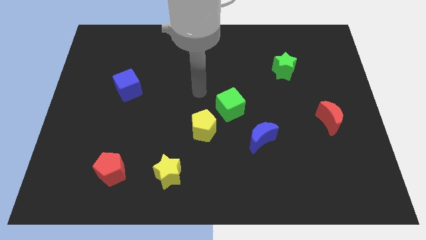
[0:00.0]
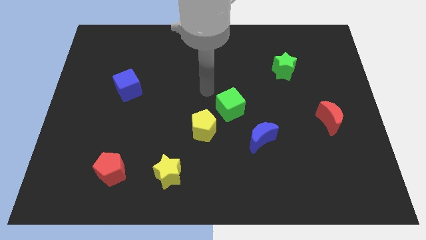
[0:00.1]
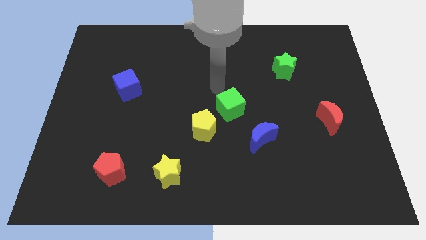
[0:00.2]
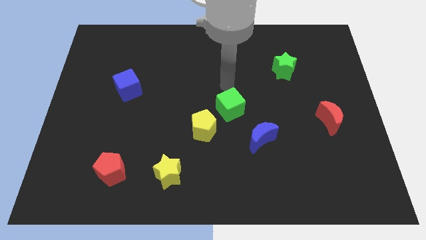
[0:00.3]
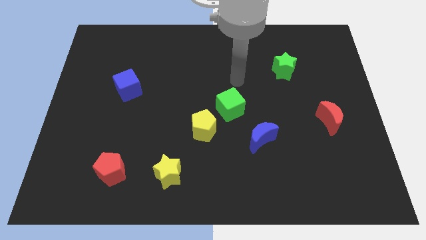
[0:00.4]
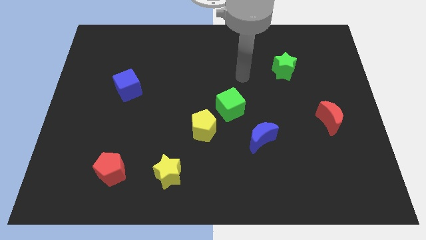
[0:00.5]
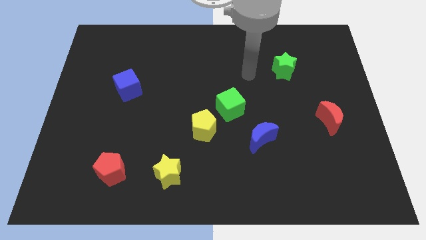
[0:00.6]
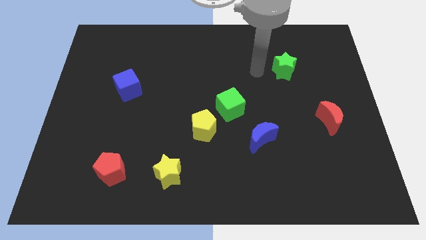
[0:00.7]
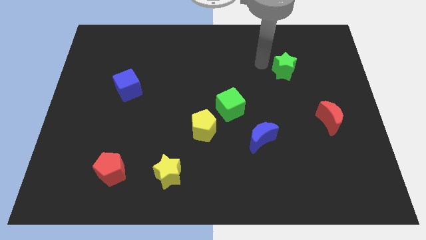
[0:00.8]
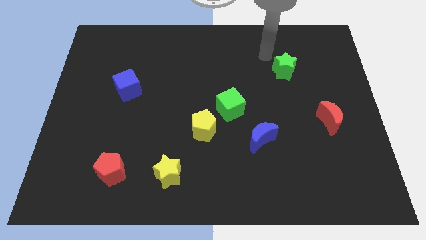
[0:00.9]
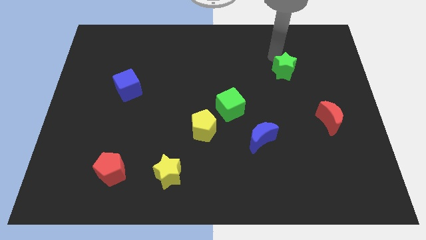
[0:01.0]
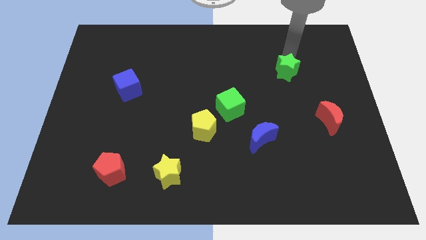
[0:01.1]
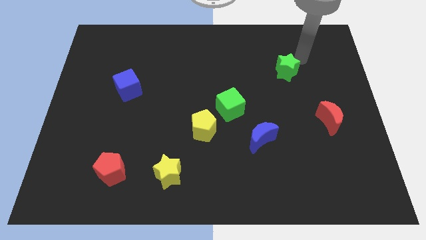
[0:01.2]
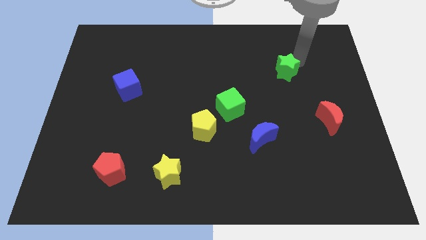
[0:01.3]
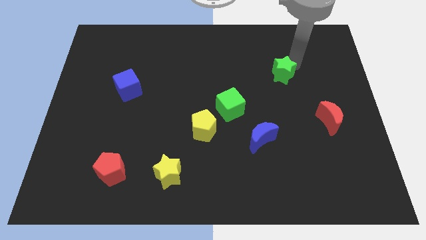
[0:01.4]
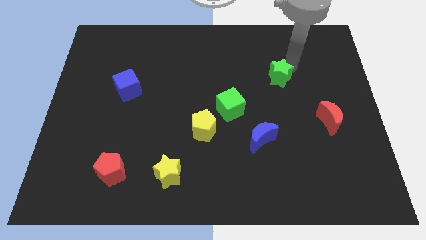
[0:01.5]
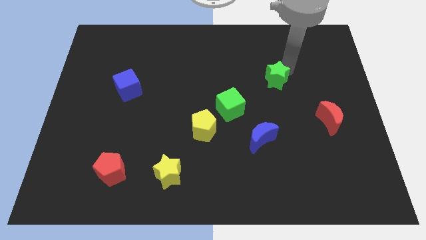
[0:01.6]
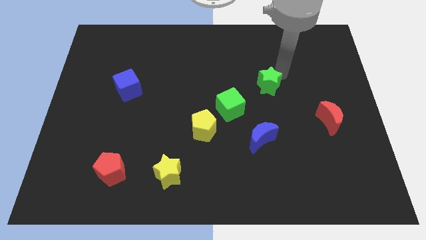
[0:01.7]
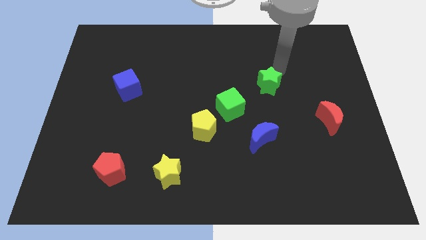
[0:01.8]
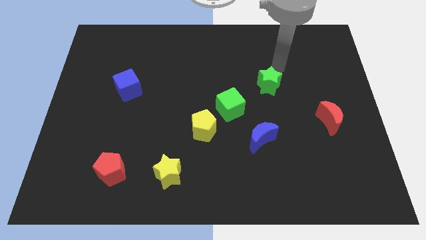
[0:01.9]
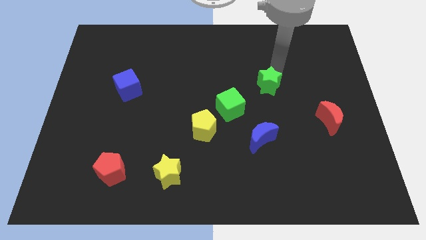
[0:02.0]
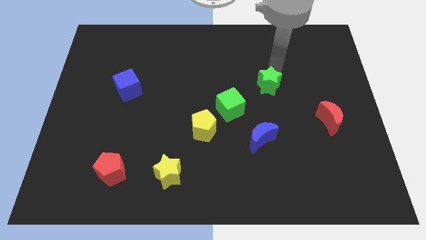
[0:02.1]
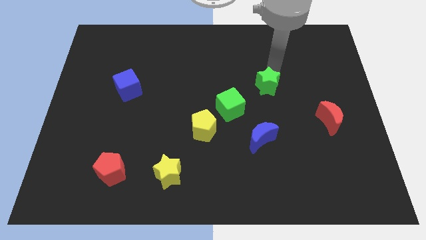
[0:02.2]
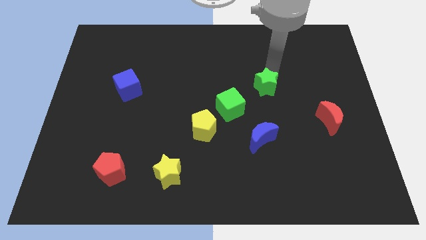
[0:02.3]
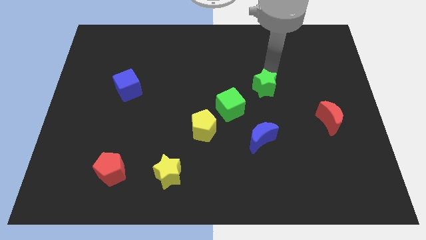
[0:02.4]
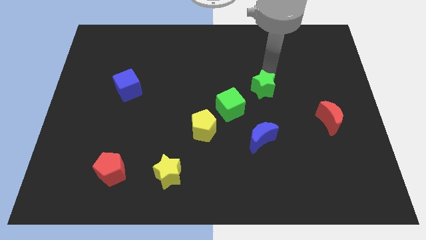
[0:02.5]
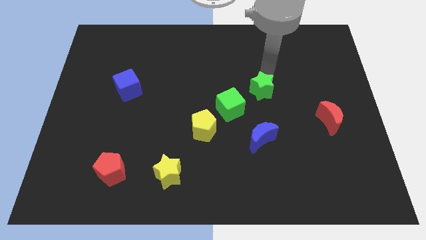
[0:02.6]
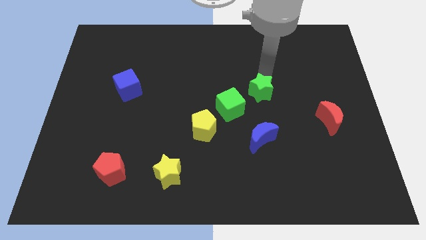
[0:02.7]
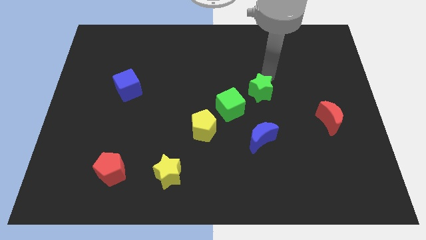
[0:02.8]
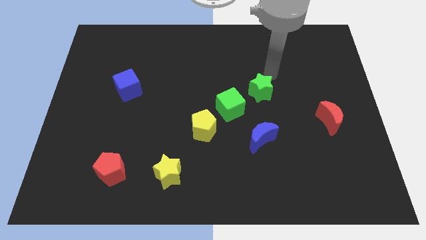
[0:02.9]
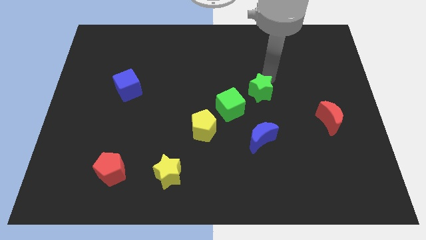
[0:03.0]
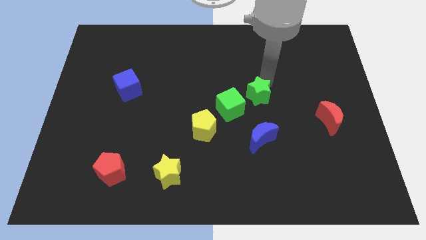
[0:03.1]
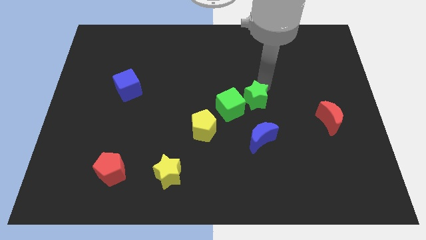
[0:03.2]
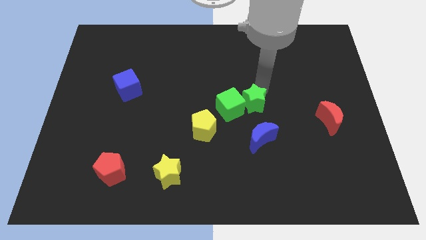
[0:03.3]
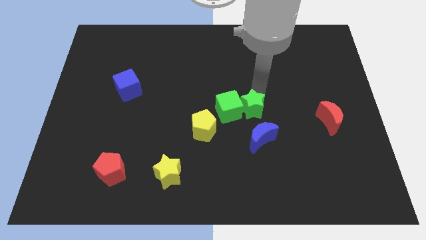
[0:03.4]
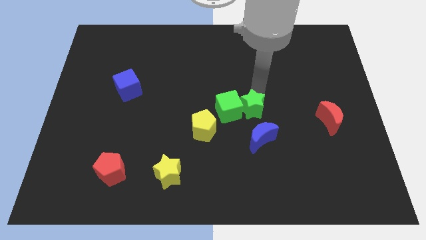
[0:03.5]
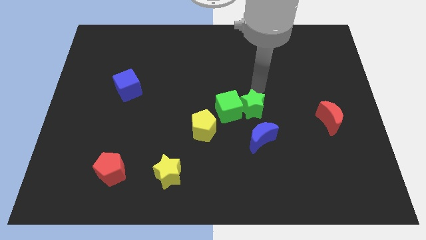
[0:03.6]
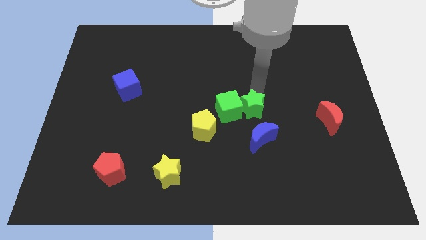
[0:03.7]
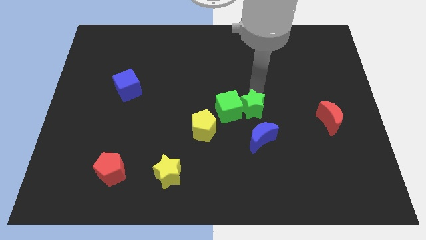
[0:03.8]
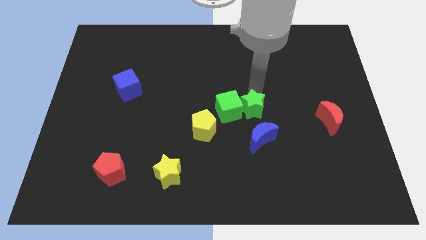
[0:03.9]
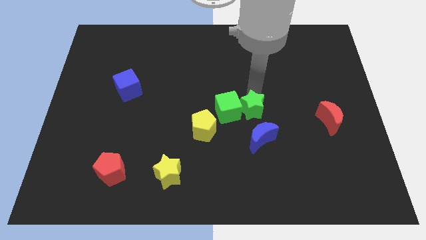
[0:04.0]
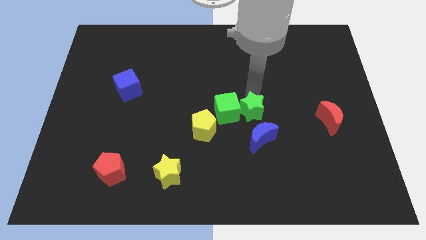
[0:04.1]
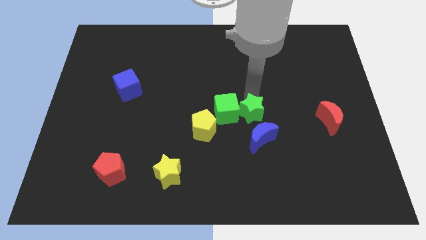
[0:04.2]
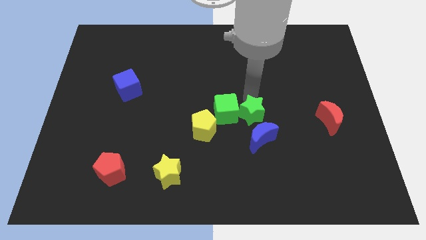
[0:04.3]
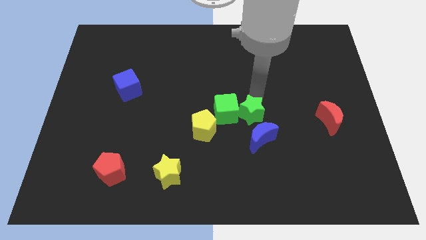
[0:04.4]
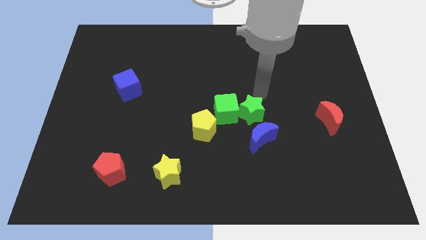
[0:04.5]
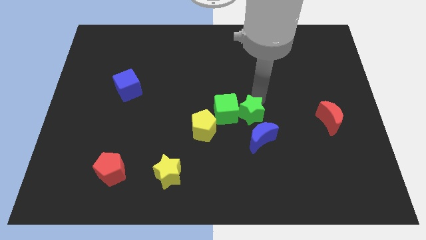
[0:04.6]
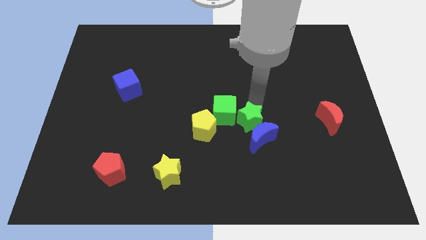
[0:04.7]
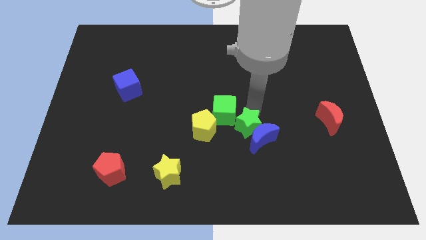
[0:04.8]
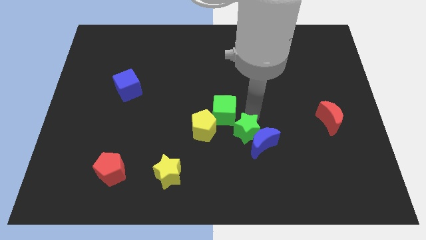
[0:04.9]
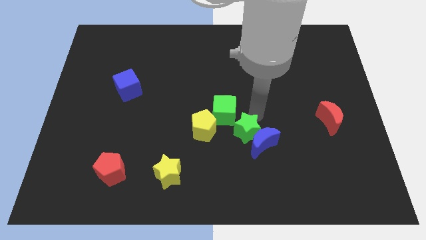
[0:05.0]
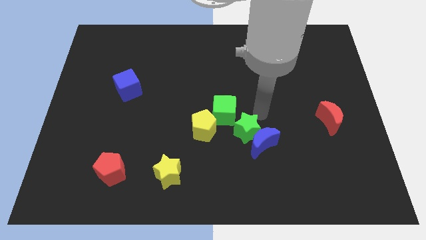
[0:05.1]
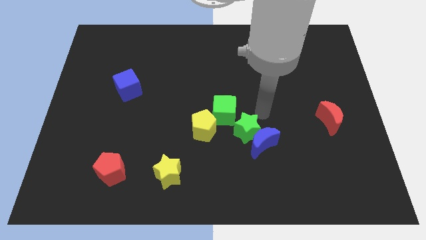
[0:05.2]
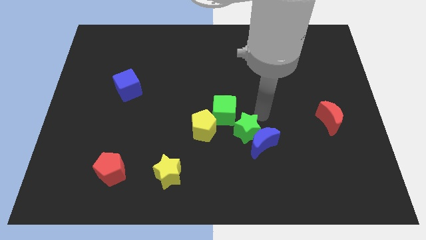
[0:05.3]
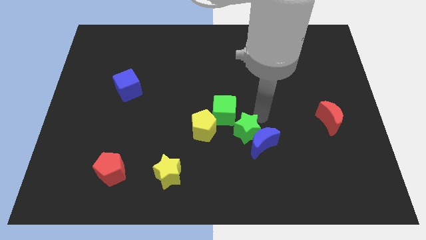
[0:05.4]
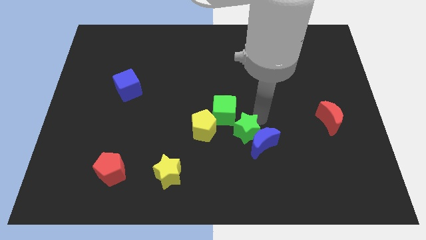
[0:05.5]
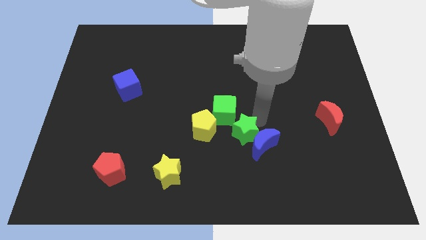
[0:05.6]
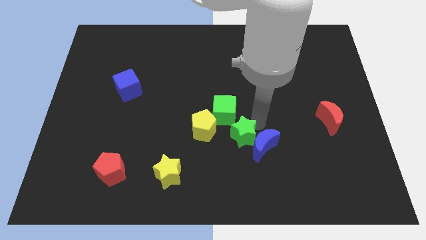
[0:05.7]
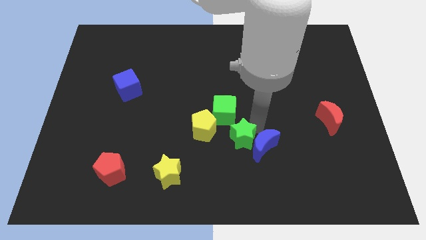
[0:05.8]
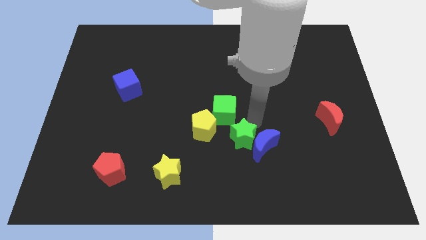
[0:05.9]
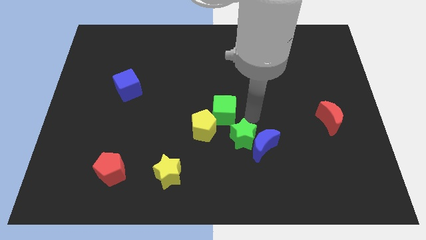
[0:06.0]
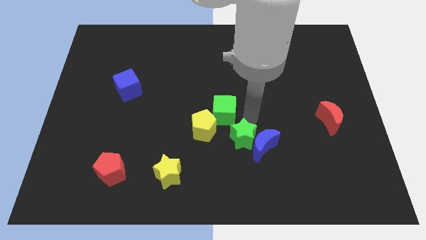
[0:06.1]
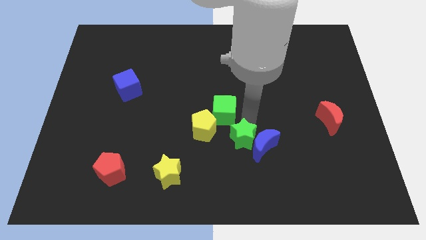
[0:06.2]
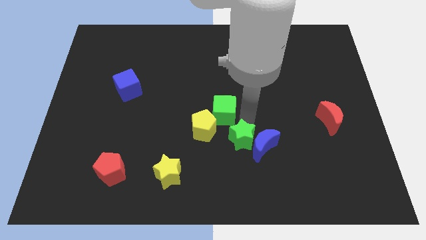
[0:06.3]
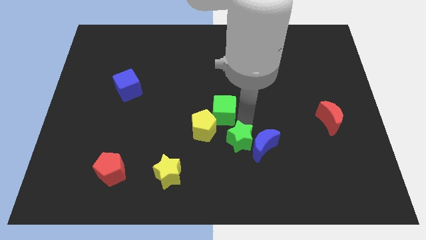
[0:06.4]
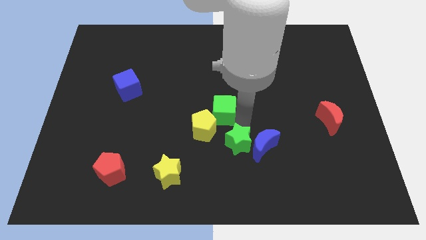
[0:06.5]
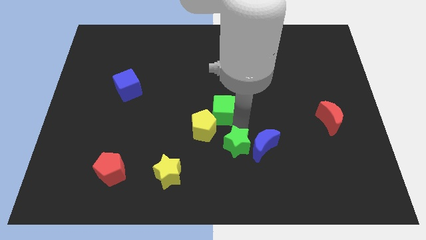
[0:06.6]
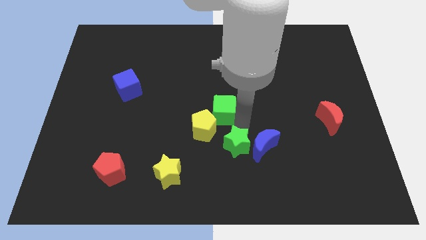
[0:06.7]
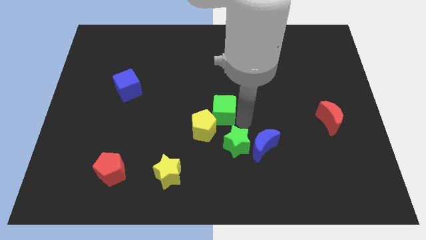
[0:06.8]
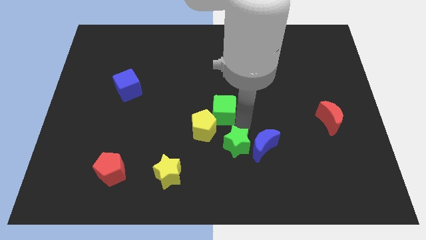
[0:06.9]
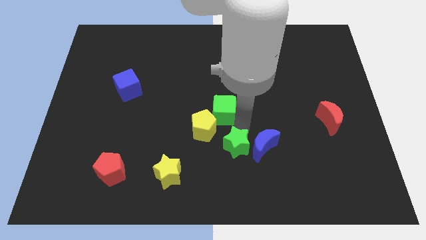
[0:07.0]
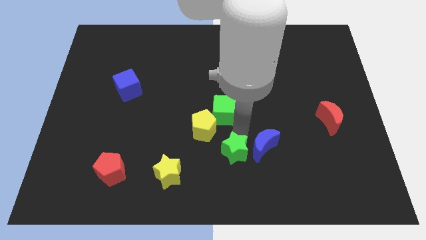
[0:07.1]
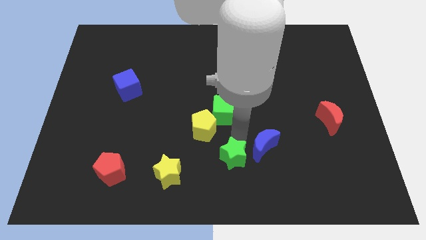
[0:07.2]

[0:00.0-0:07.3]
push the green star to the bottom
